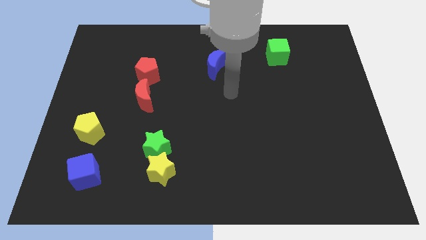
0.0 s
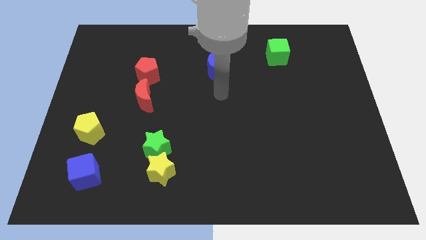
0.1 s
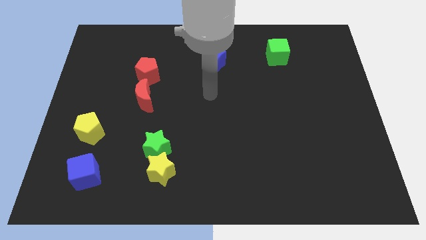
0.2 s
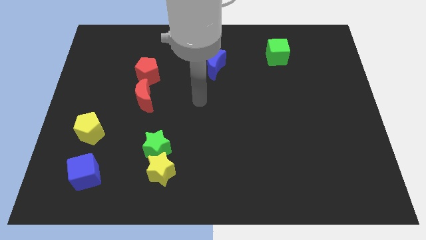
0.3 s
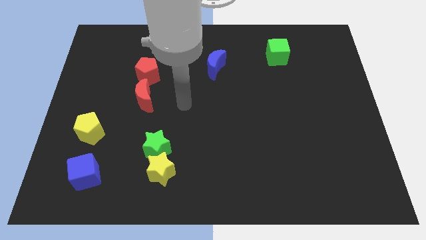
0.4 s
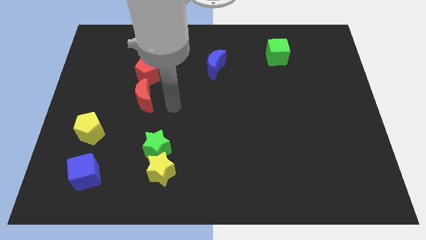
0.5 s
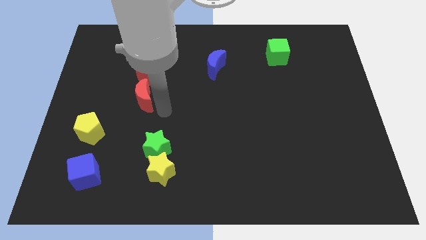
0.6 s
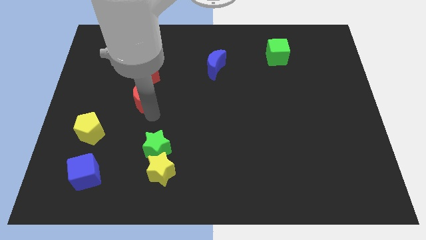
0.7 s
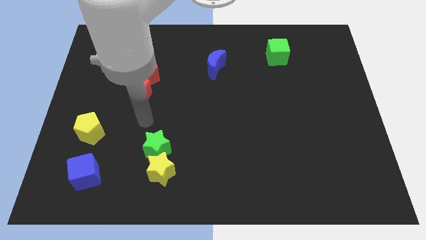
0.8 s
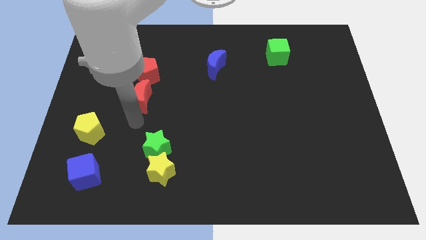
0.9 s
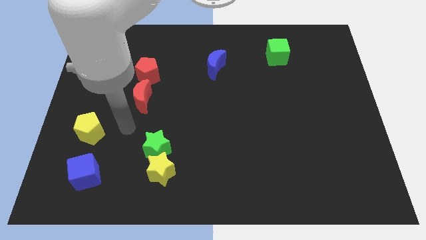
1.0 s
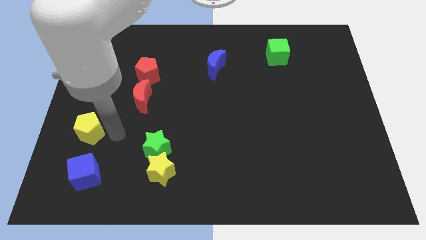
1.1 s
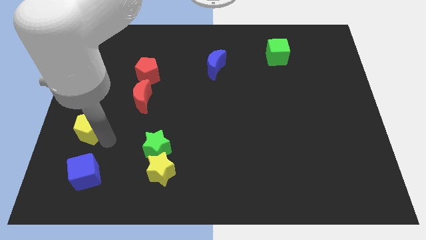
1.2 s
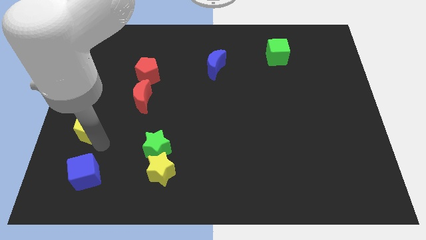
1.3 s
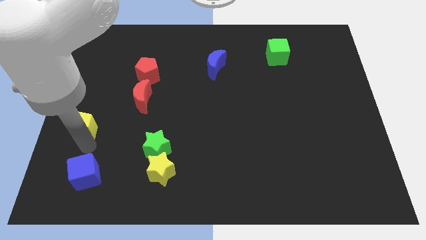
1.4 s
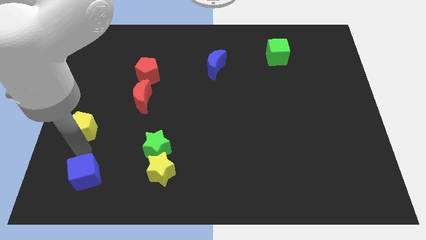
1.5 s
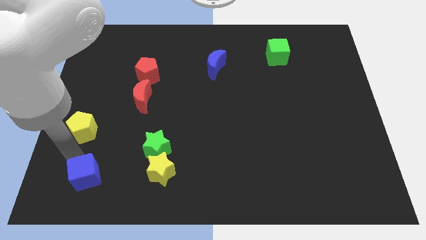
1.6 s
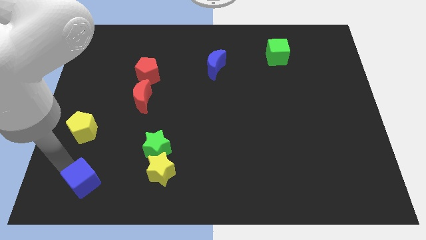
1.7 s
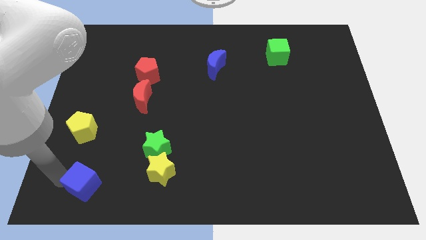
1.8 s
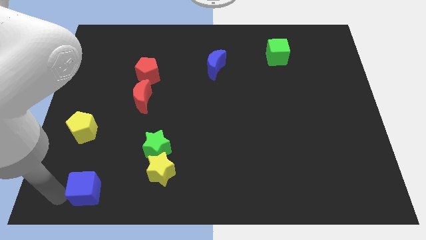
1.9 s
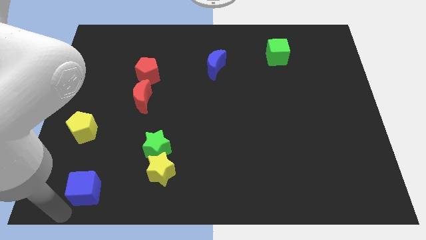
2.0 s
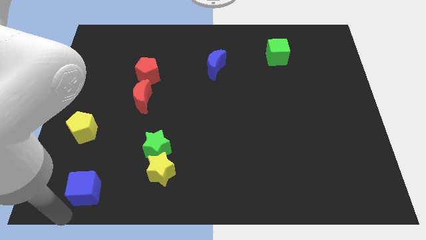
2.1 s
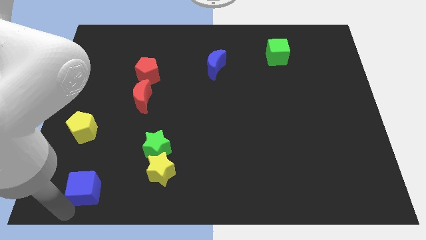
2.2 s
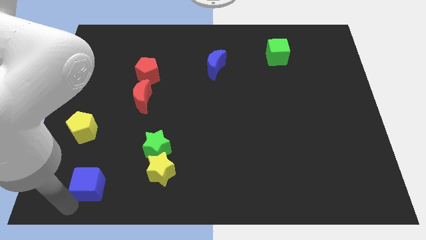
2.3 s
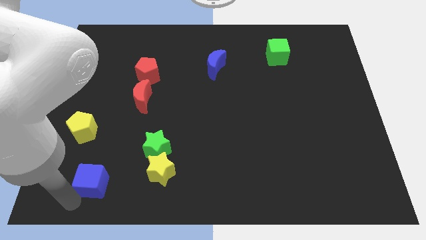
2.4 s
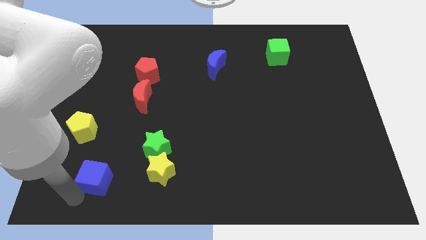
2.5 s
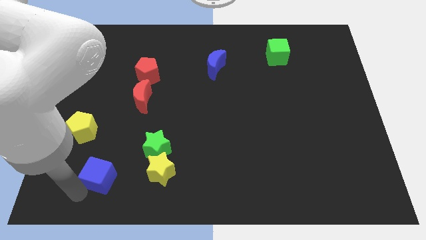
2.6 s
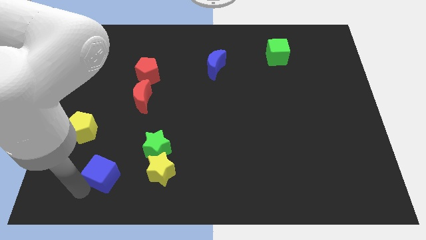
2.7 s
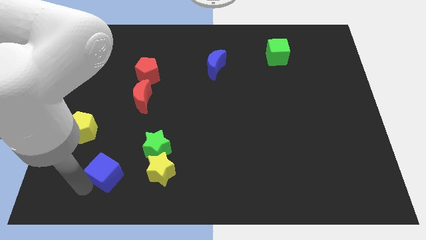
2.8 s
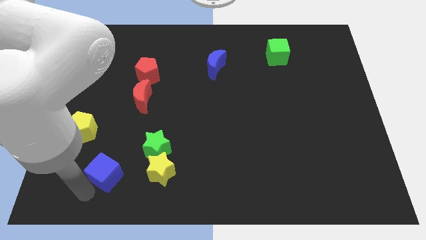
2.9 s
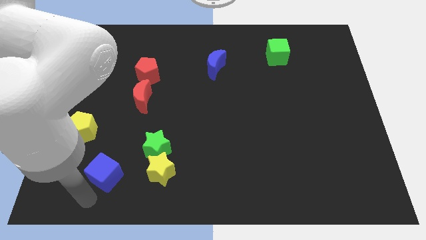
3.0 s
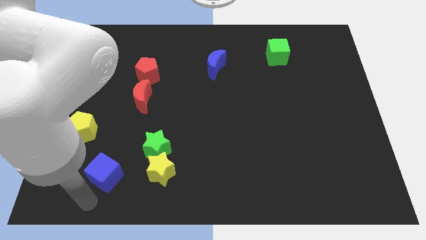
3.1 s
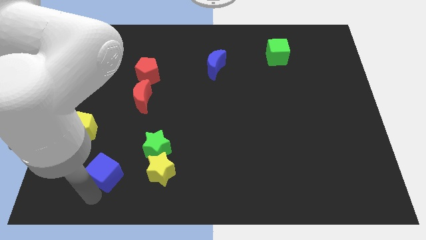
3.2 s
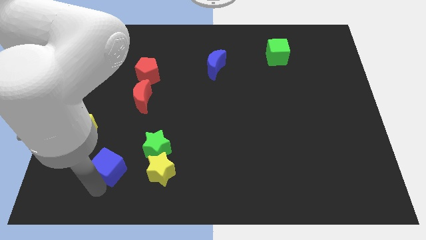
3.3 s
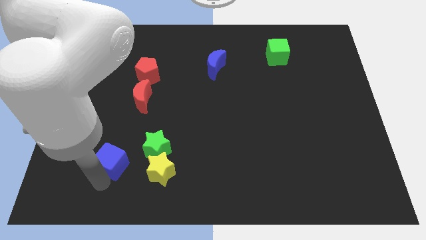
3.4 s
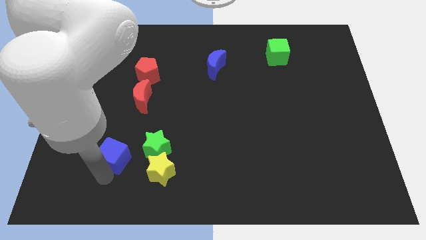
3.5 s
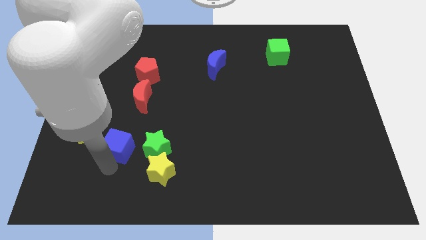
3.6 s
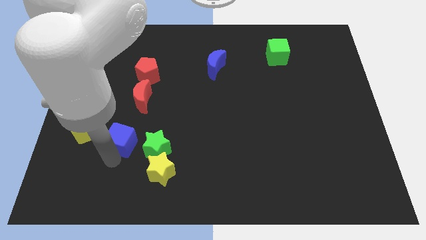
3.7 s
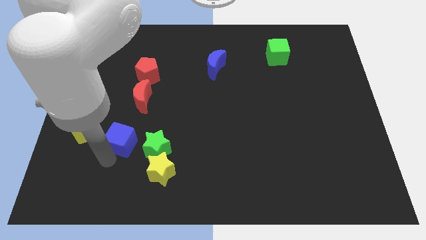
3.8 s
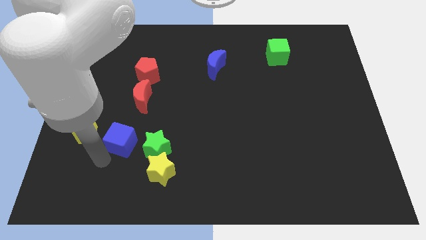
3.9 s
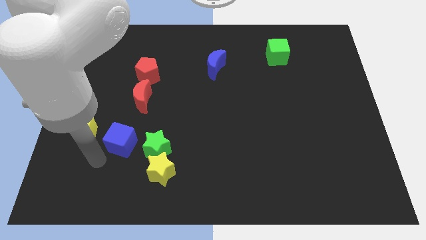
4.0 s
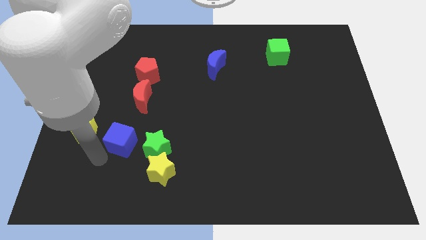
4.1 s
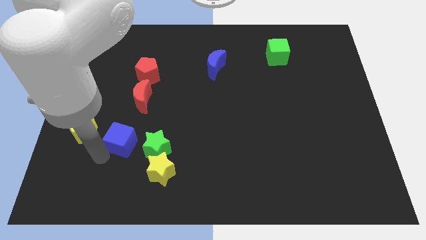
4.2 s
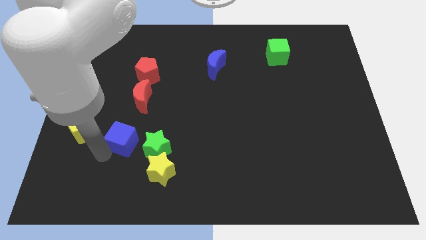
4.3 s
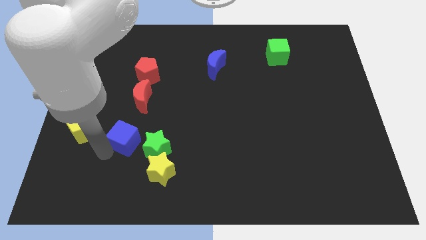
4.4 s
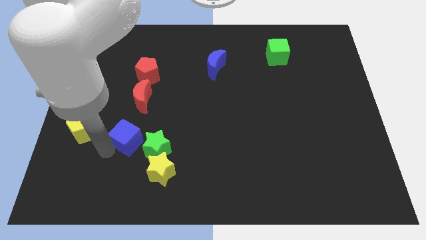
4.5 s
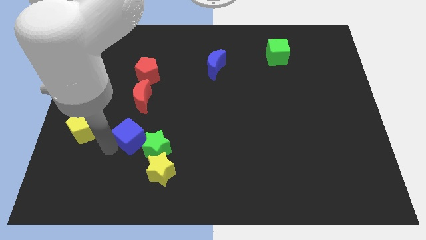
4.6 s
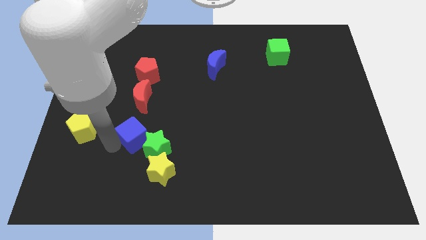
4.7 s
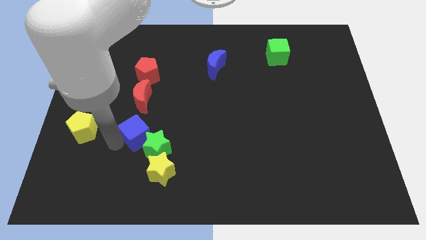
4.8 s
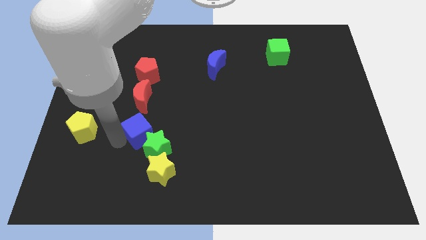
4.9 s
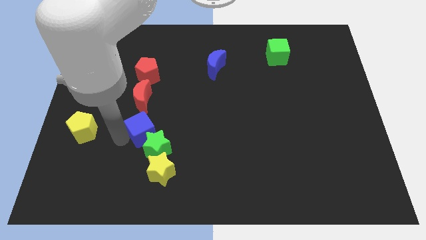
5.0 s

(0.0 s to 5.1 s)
push the blue cube above the yellow star

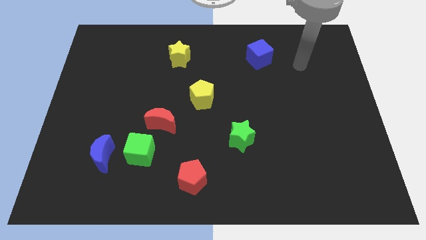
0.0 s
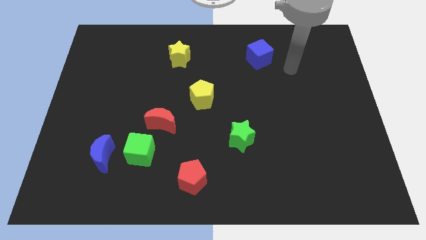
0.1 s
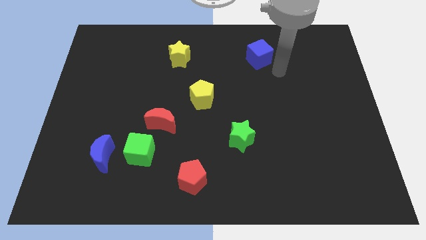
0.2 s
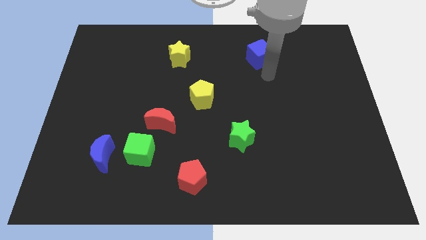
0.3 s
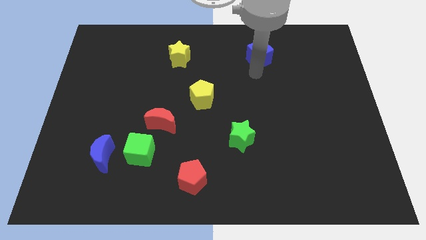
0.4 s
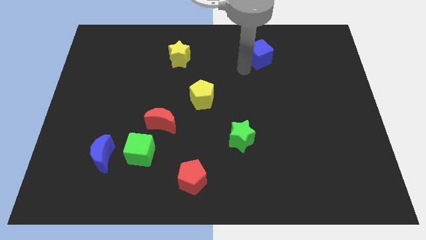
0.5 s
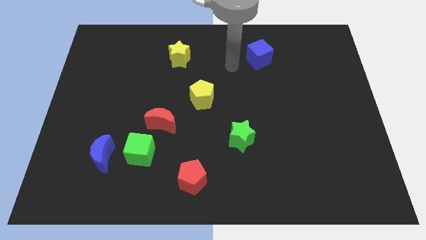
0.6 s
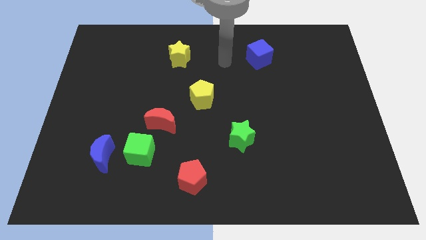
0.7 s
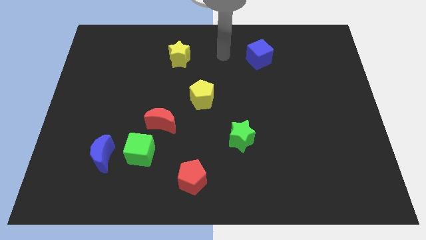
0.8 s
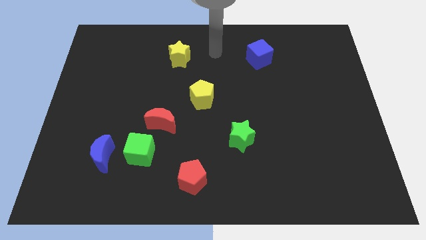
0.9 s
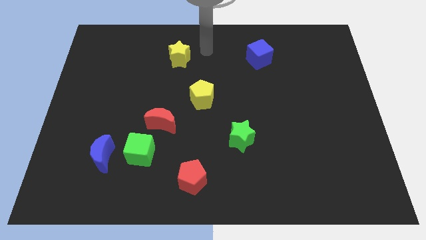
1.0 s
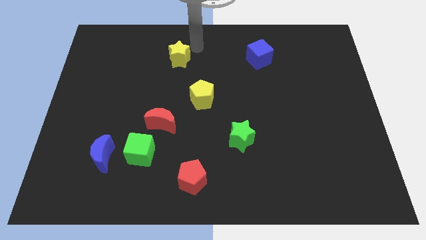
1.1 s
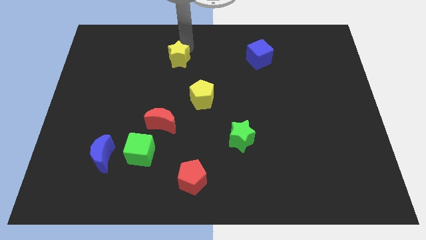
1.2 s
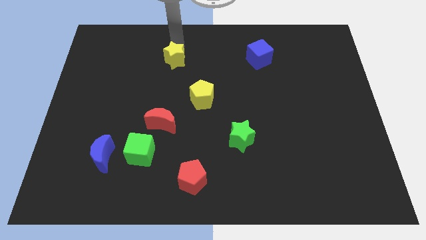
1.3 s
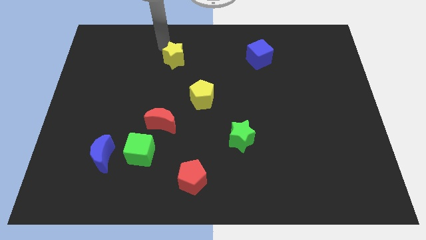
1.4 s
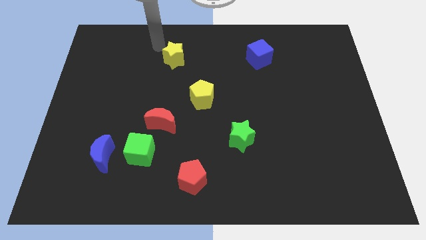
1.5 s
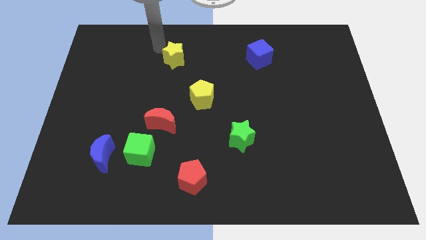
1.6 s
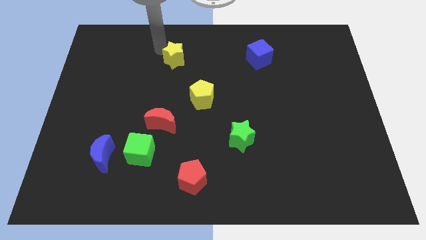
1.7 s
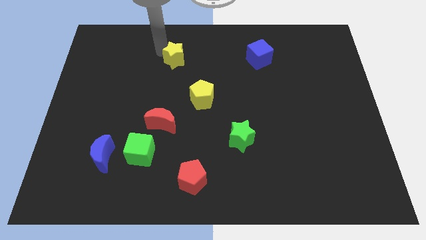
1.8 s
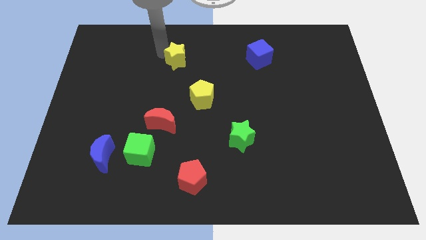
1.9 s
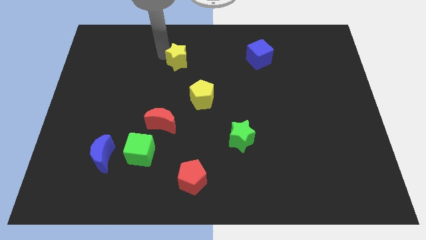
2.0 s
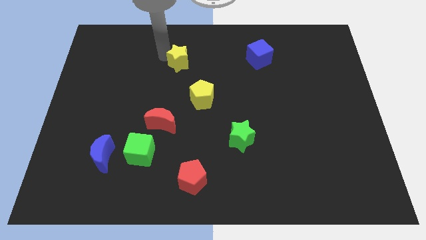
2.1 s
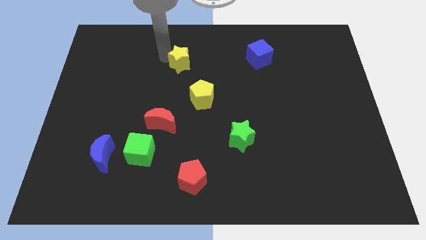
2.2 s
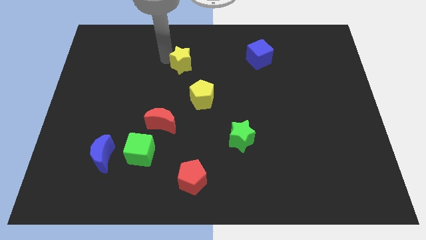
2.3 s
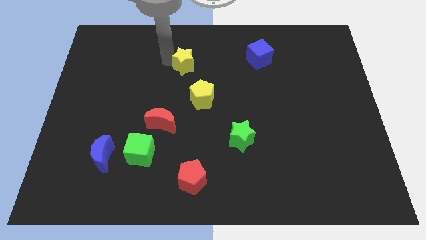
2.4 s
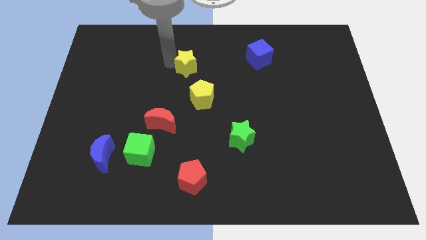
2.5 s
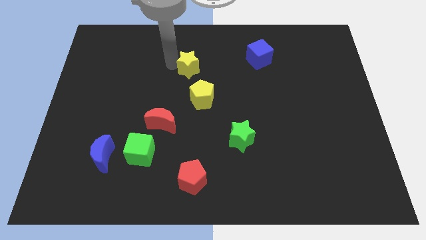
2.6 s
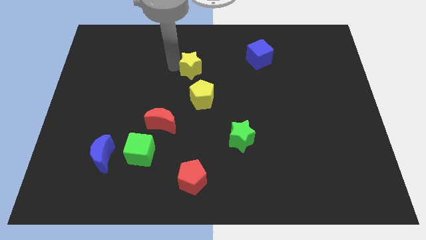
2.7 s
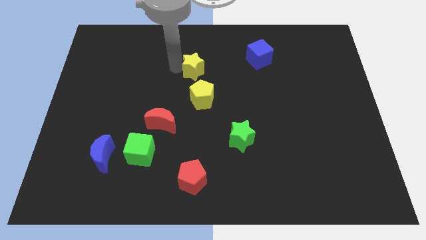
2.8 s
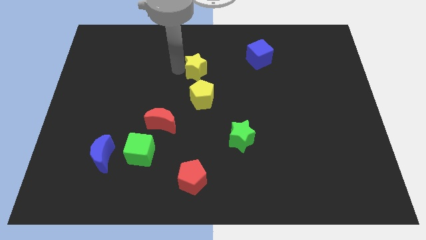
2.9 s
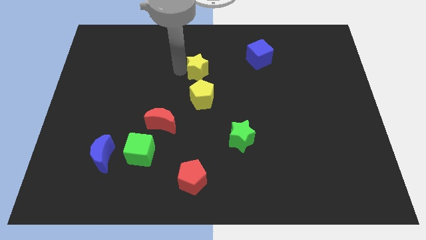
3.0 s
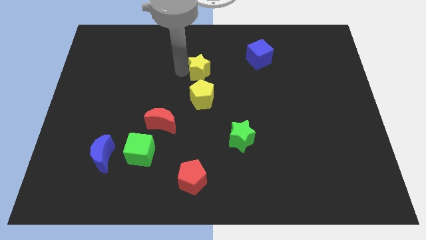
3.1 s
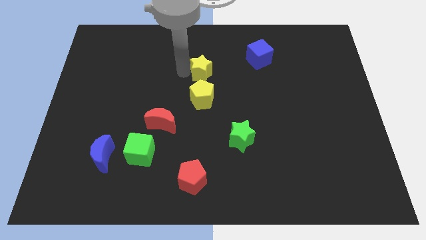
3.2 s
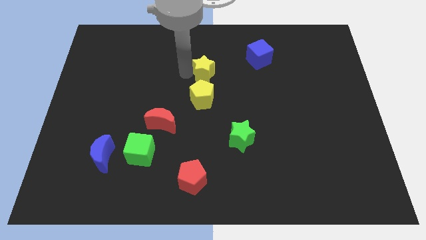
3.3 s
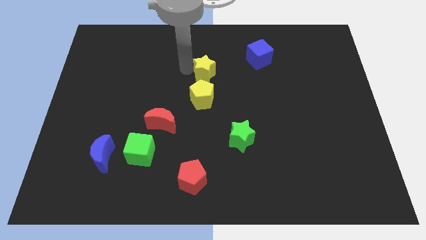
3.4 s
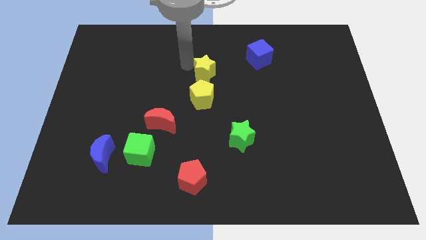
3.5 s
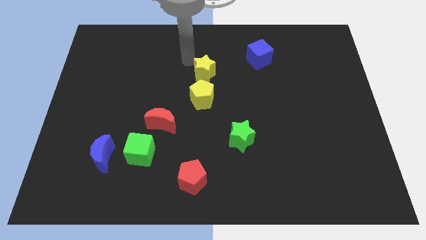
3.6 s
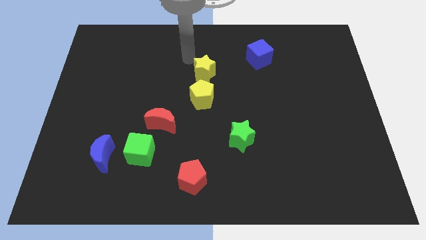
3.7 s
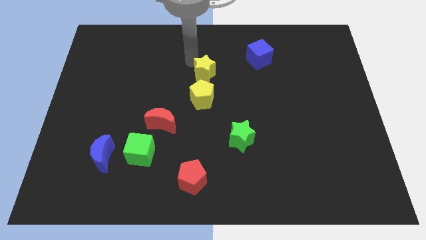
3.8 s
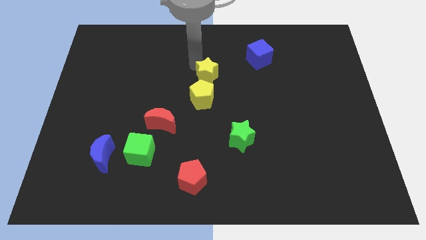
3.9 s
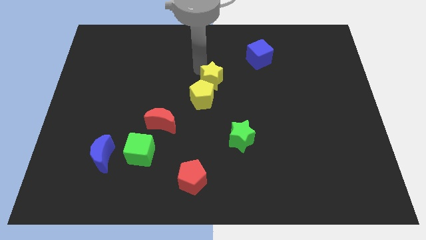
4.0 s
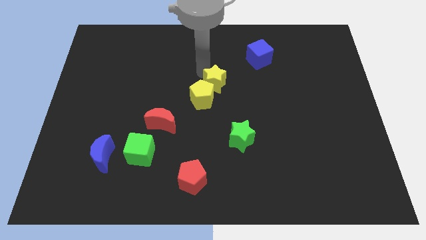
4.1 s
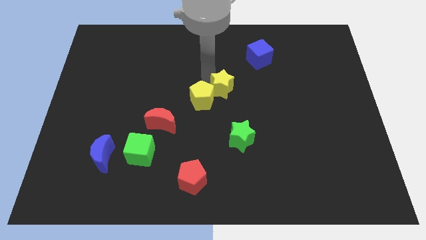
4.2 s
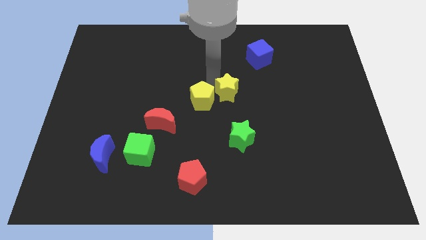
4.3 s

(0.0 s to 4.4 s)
move the yellow star to the top side of the green star
